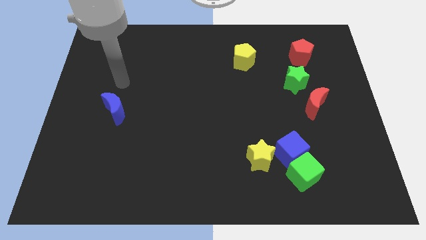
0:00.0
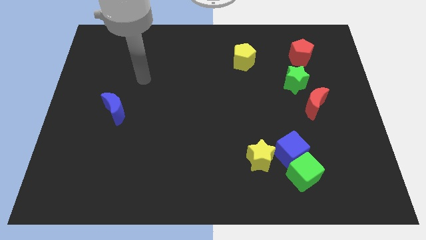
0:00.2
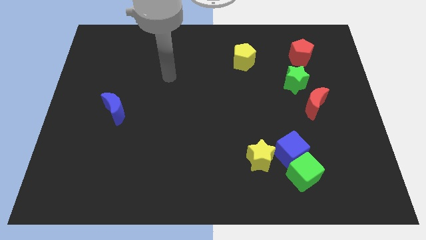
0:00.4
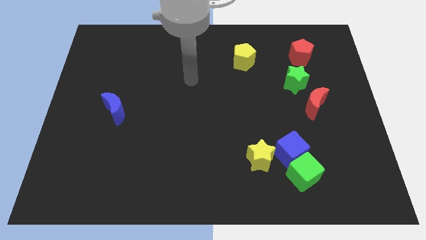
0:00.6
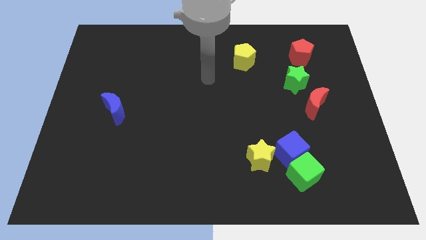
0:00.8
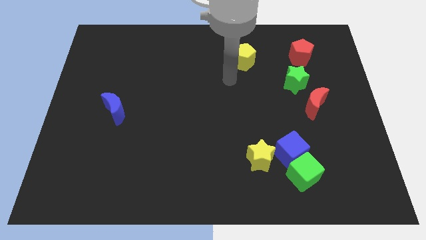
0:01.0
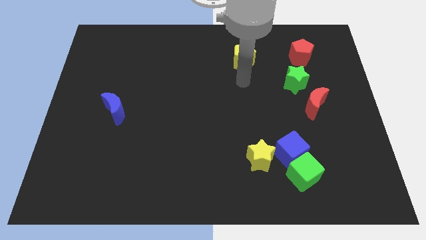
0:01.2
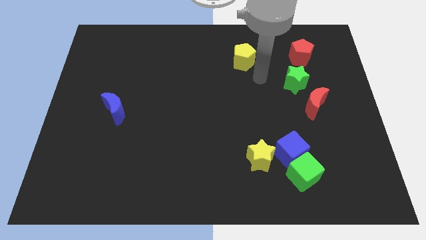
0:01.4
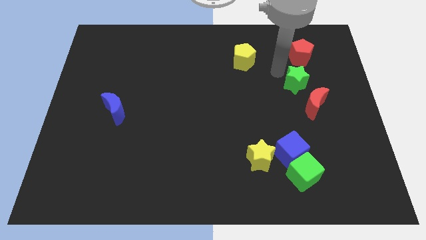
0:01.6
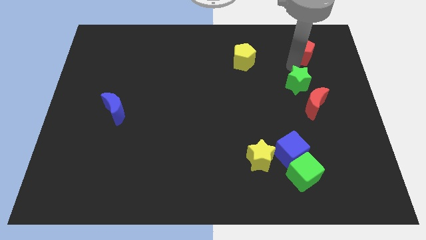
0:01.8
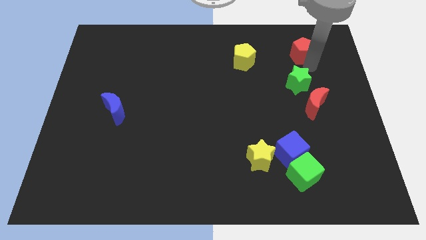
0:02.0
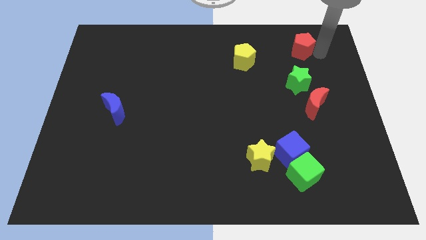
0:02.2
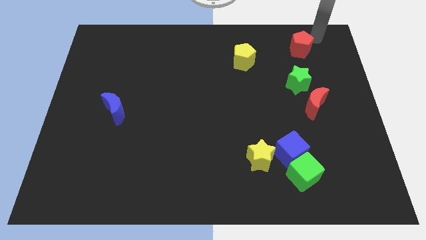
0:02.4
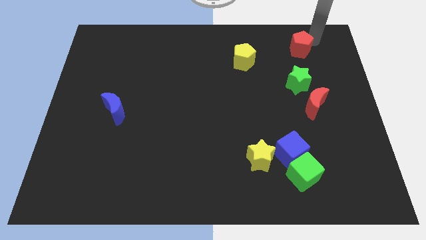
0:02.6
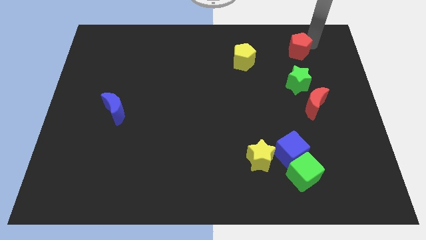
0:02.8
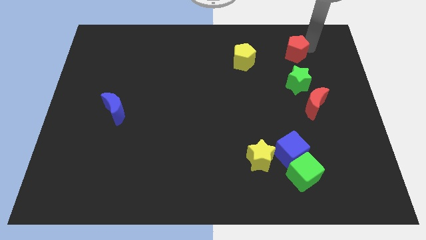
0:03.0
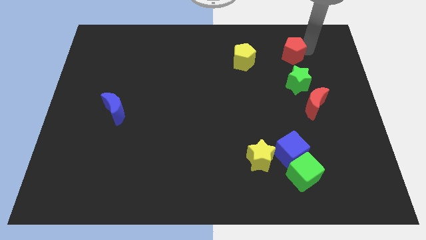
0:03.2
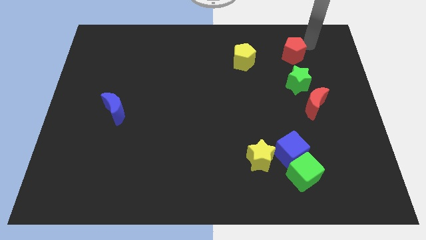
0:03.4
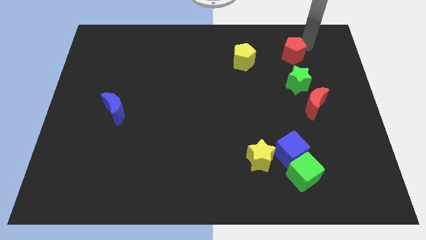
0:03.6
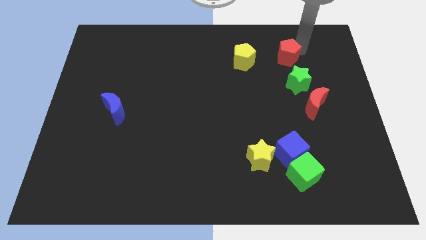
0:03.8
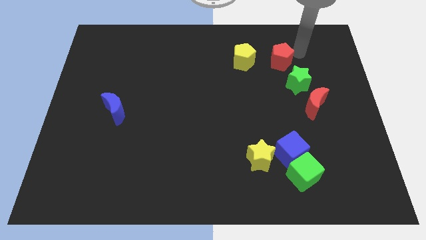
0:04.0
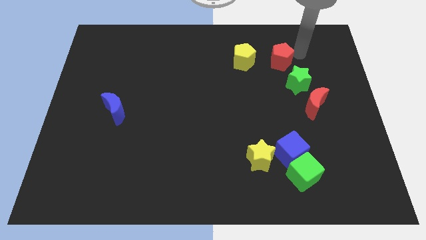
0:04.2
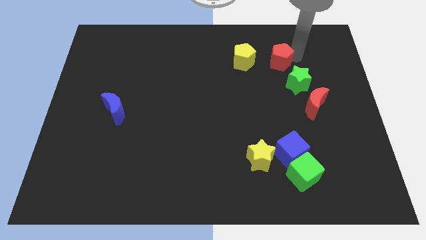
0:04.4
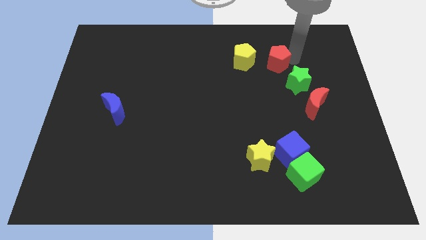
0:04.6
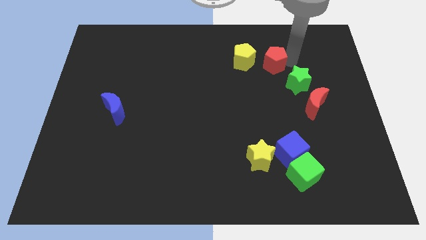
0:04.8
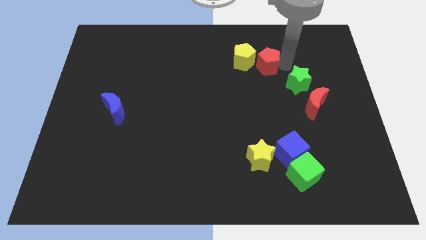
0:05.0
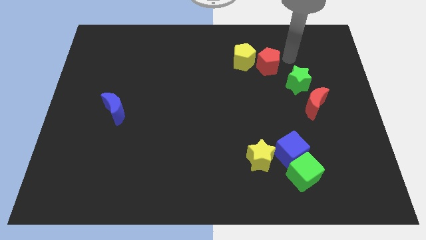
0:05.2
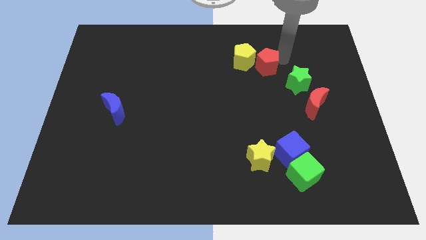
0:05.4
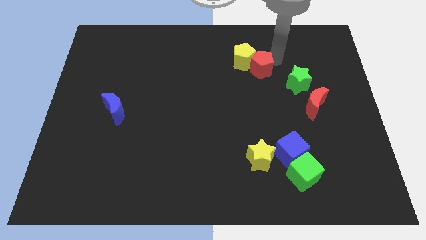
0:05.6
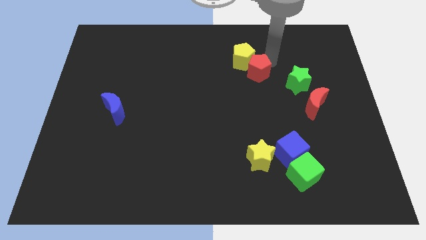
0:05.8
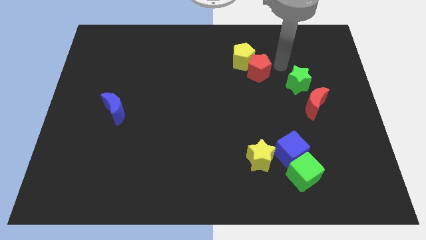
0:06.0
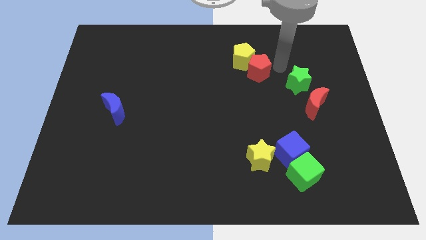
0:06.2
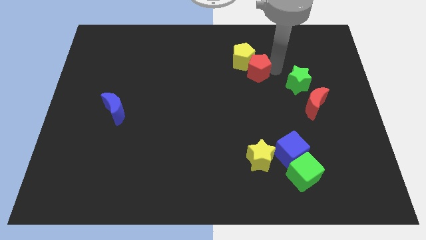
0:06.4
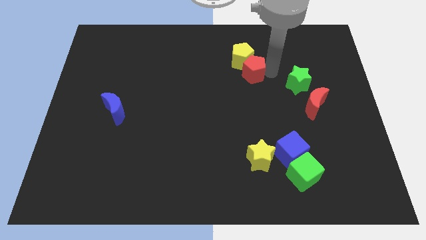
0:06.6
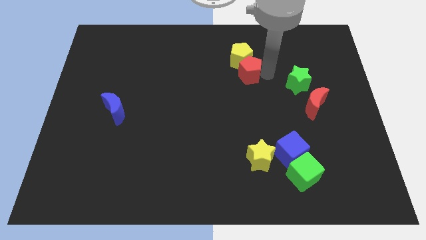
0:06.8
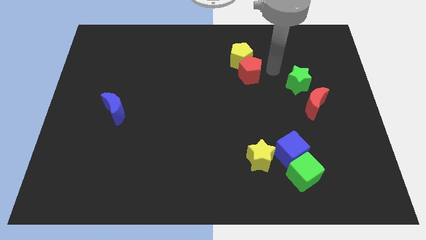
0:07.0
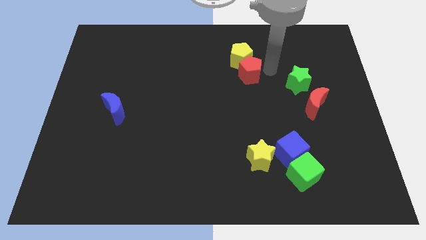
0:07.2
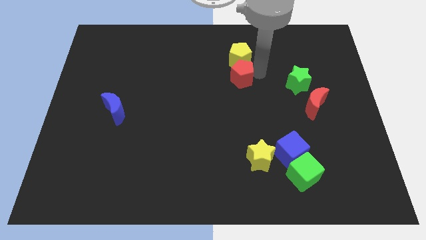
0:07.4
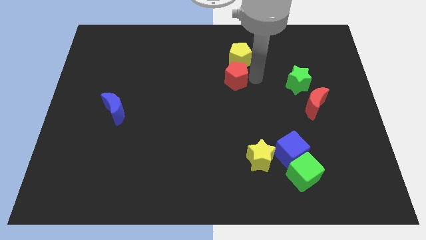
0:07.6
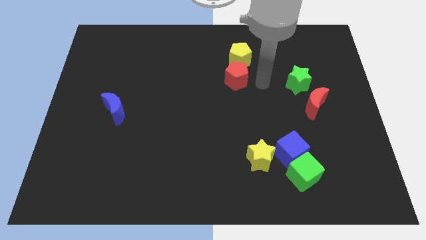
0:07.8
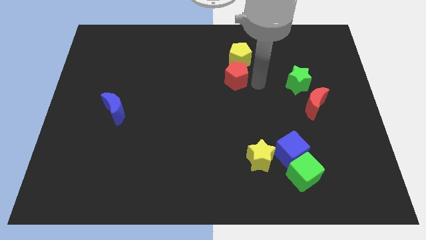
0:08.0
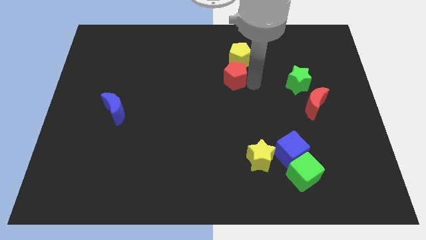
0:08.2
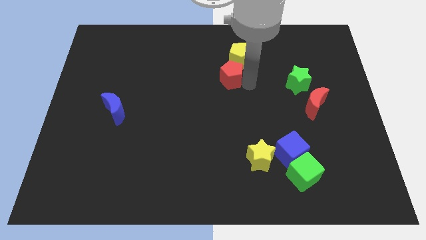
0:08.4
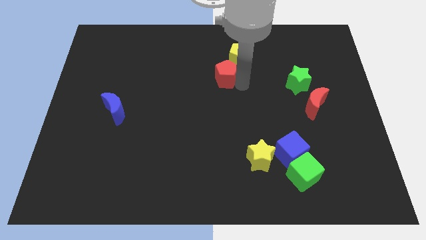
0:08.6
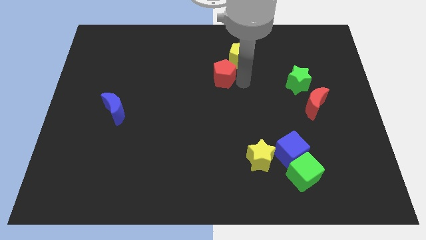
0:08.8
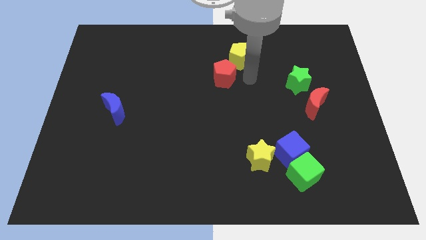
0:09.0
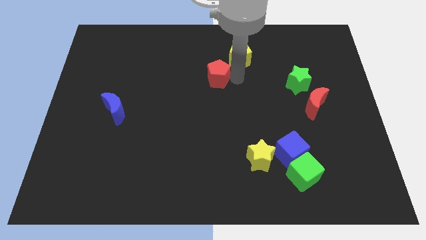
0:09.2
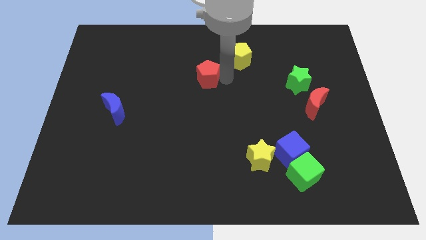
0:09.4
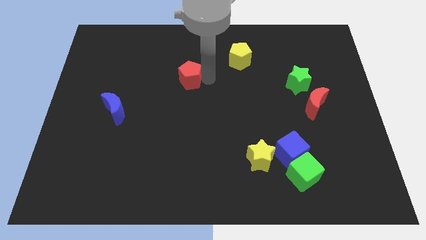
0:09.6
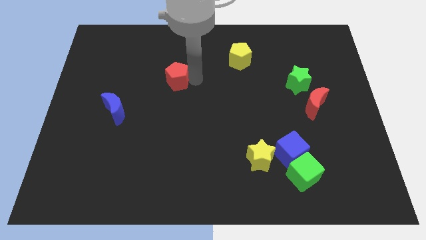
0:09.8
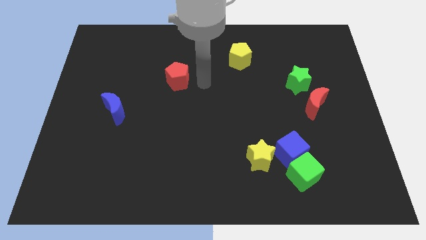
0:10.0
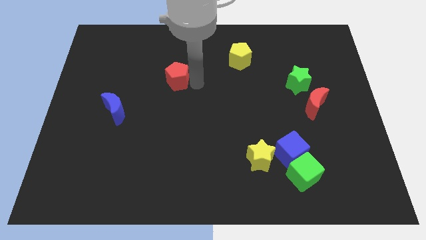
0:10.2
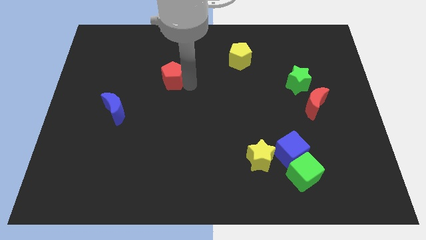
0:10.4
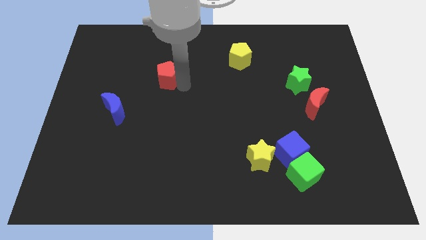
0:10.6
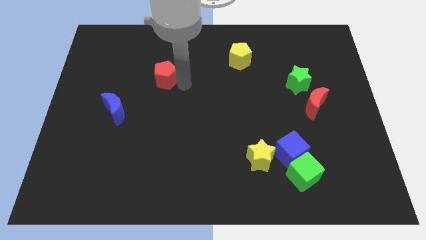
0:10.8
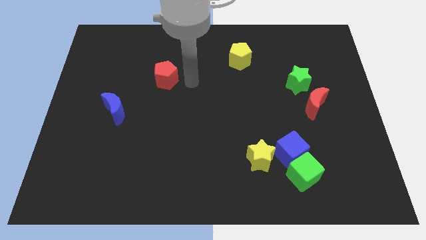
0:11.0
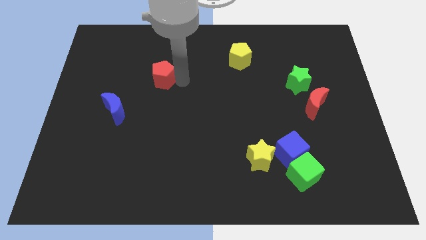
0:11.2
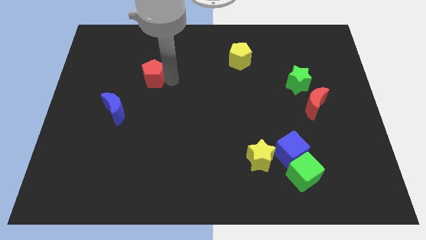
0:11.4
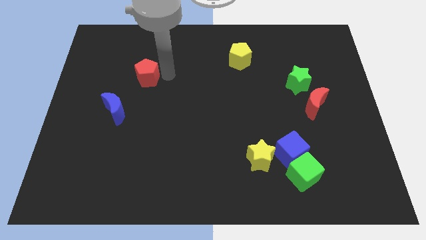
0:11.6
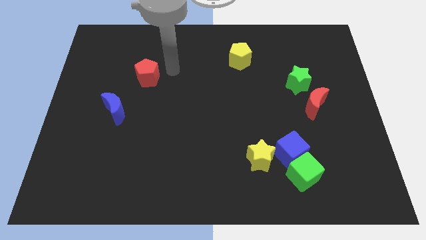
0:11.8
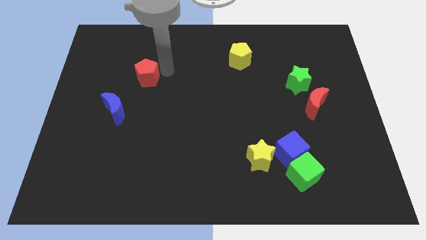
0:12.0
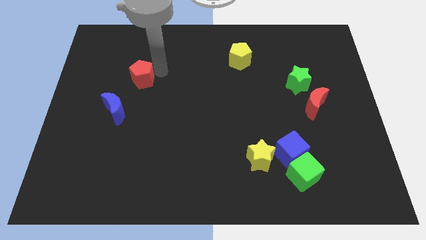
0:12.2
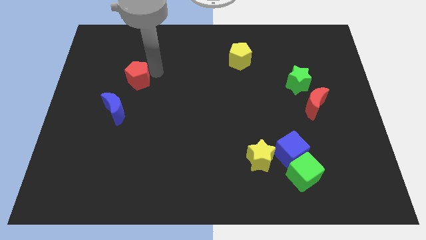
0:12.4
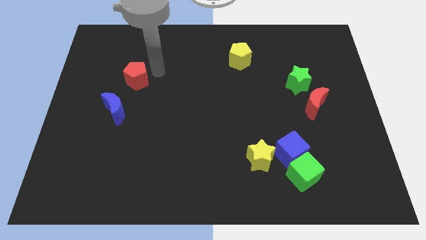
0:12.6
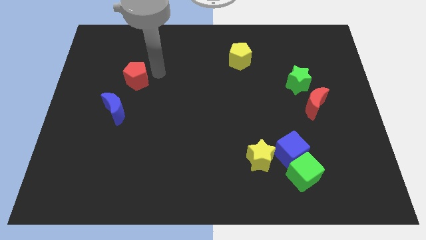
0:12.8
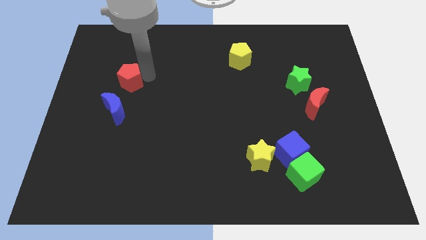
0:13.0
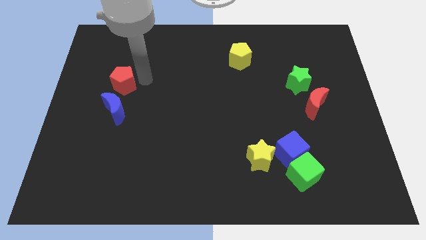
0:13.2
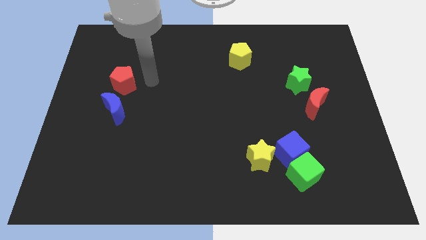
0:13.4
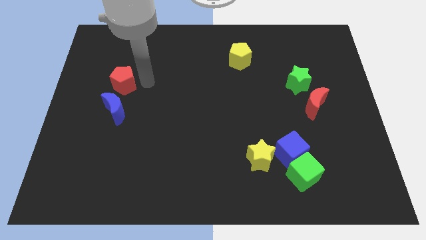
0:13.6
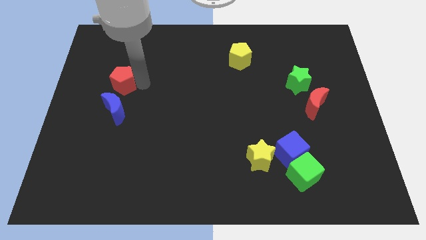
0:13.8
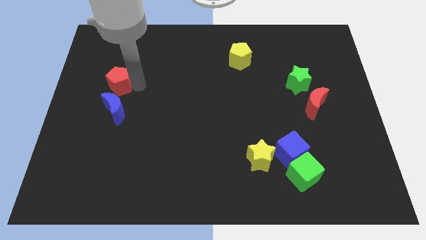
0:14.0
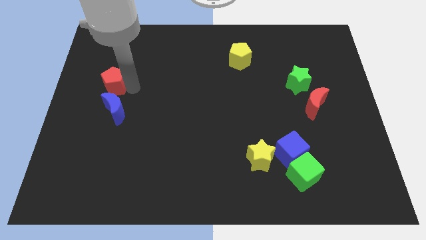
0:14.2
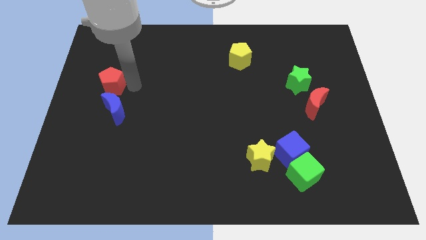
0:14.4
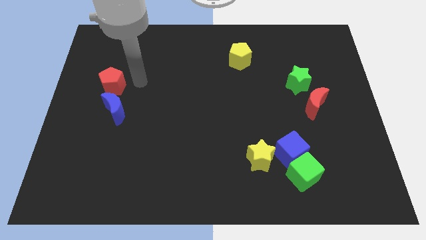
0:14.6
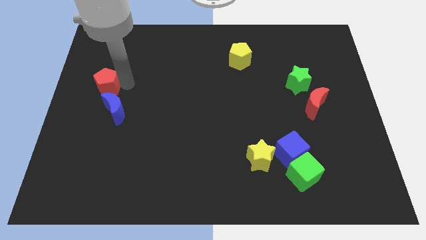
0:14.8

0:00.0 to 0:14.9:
push the red pentagon to the left side
